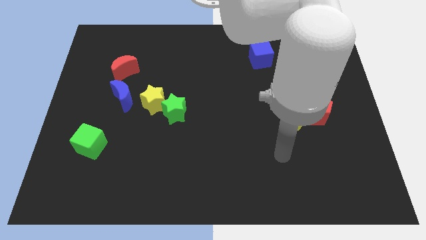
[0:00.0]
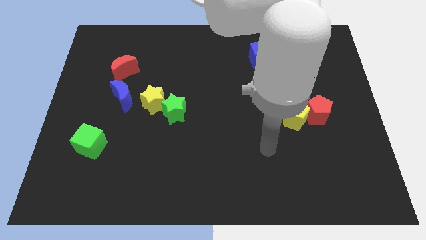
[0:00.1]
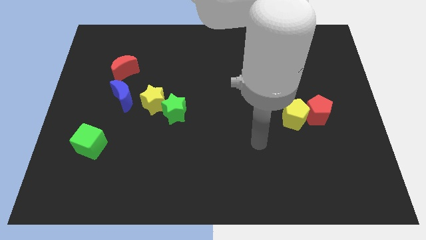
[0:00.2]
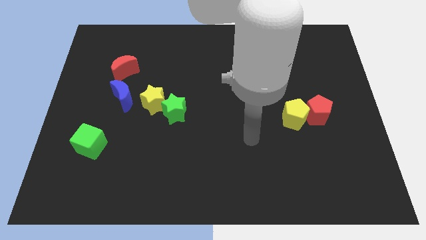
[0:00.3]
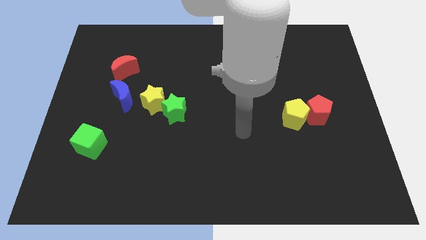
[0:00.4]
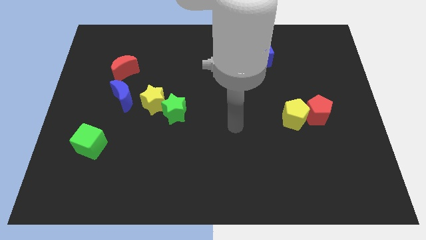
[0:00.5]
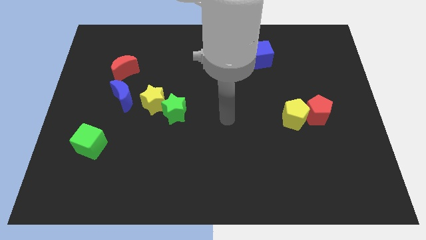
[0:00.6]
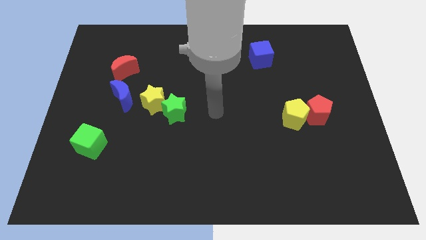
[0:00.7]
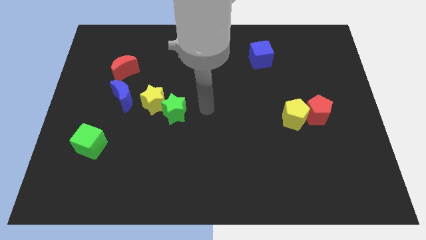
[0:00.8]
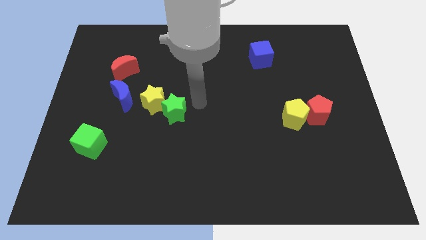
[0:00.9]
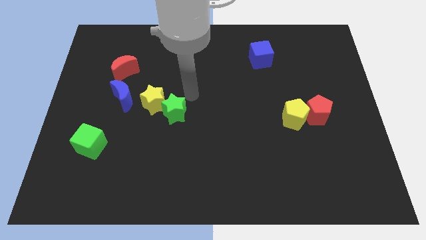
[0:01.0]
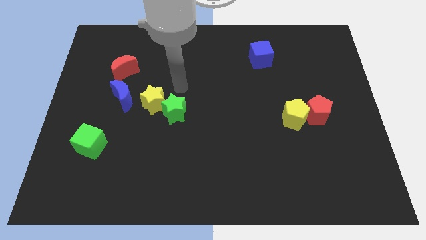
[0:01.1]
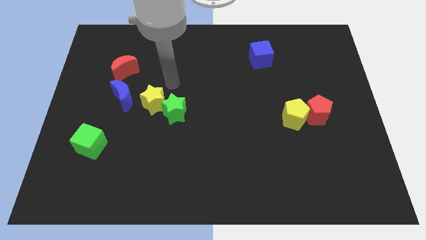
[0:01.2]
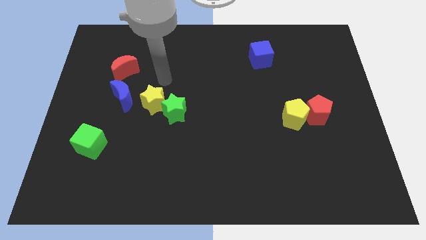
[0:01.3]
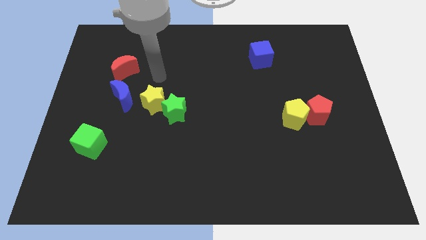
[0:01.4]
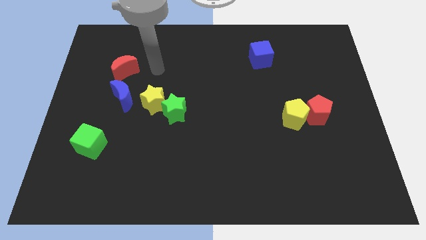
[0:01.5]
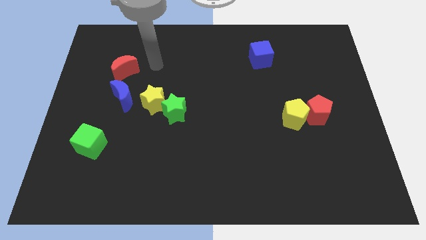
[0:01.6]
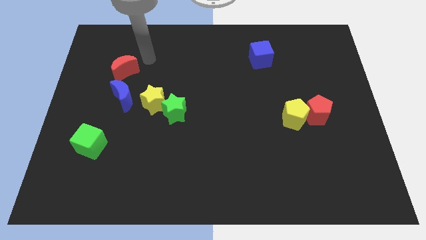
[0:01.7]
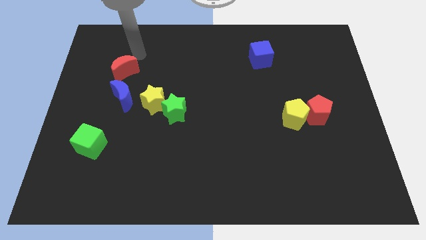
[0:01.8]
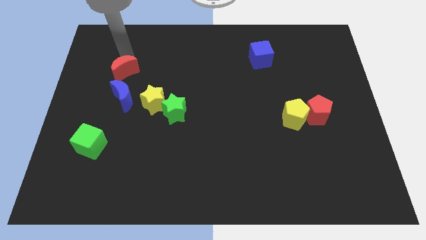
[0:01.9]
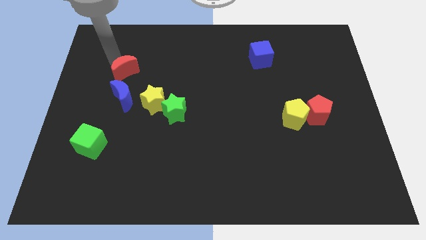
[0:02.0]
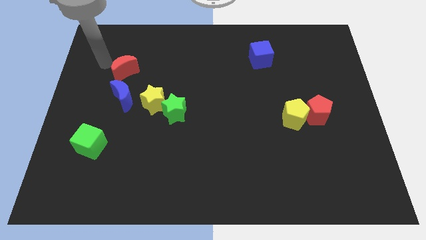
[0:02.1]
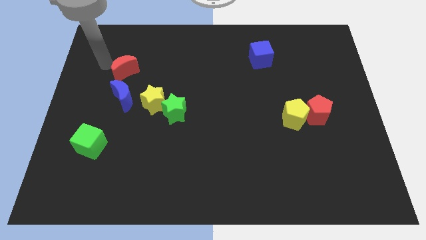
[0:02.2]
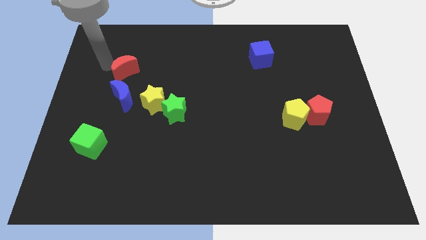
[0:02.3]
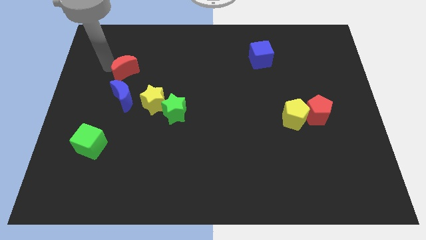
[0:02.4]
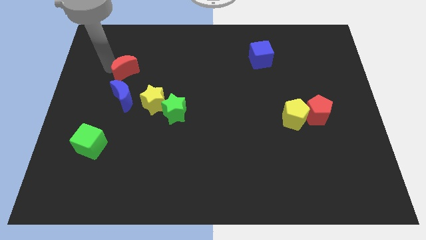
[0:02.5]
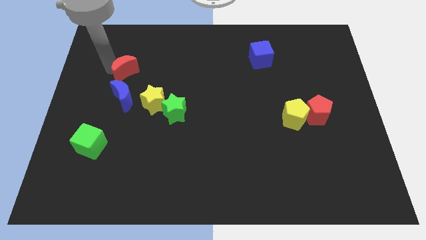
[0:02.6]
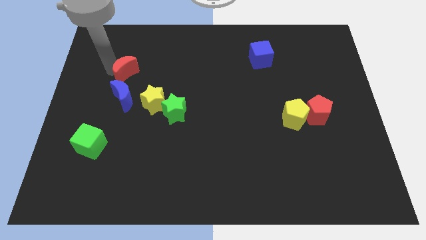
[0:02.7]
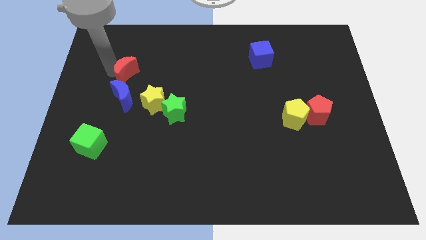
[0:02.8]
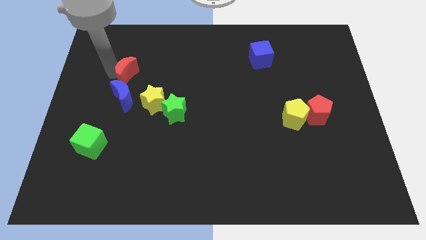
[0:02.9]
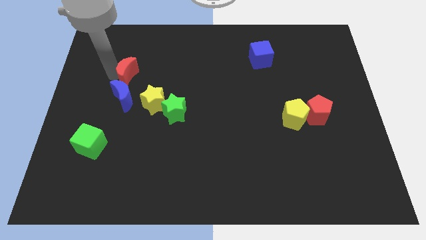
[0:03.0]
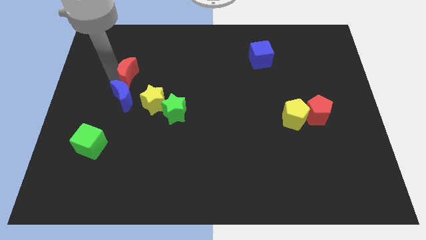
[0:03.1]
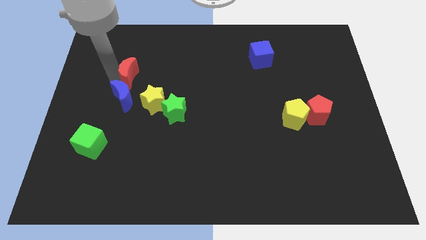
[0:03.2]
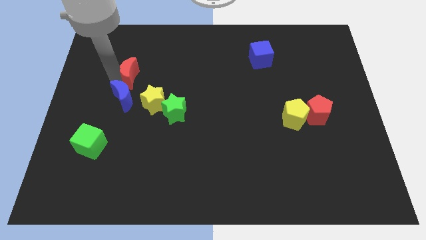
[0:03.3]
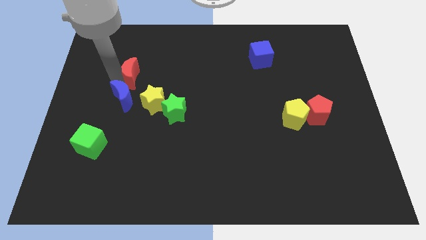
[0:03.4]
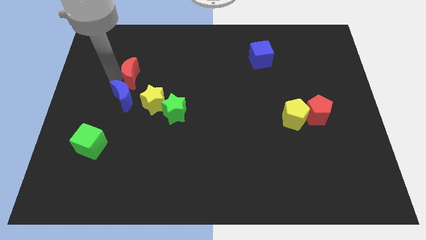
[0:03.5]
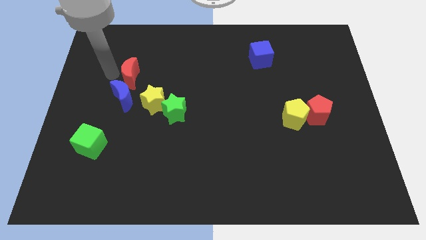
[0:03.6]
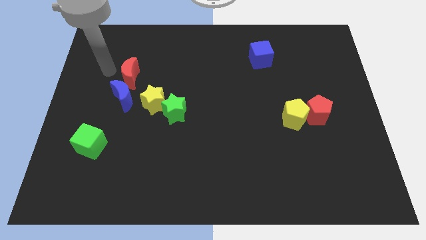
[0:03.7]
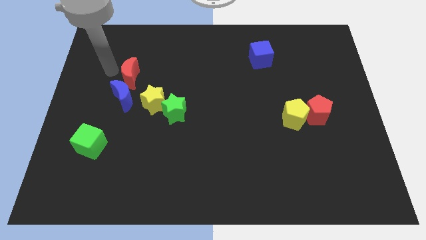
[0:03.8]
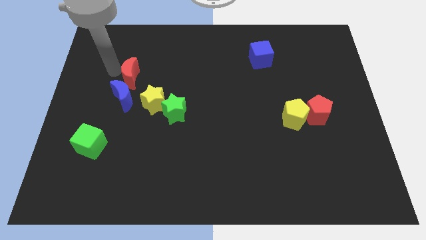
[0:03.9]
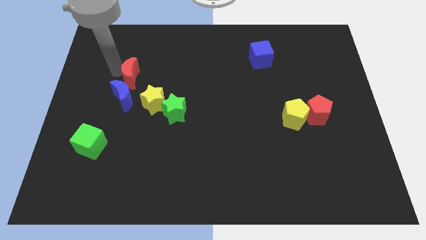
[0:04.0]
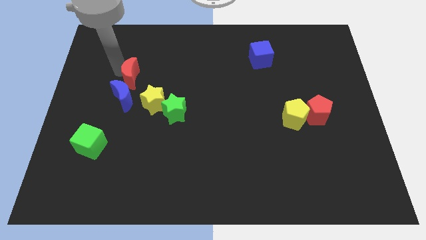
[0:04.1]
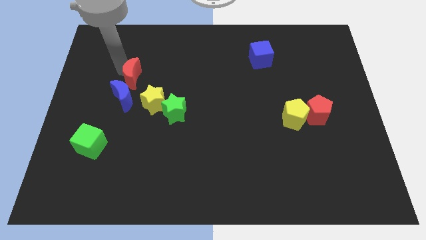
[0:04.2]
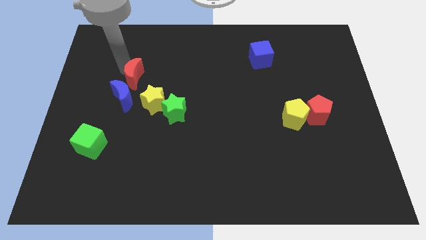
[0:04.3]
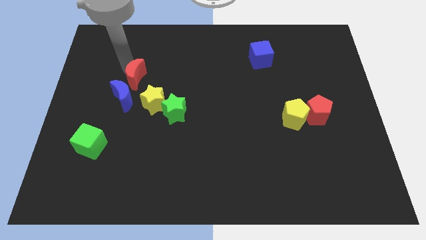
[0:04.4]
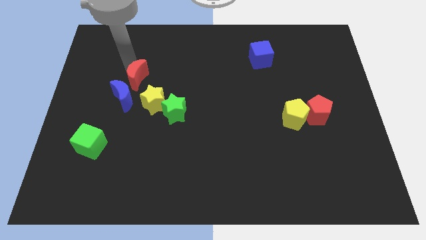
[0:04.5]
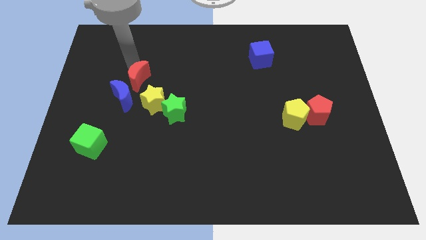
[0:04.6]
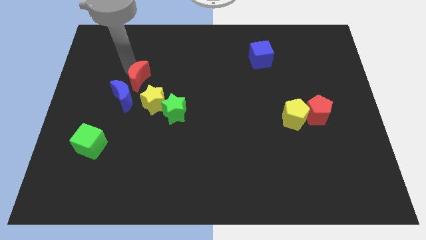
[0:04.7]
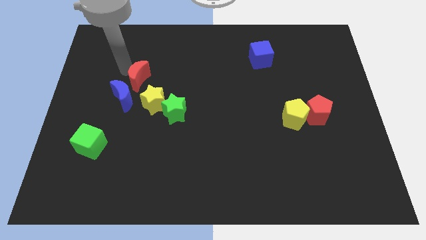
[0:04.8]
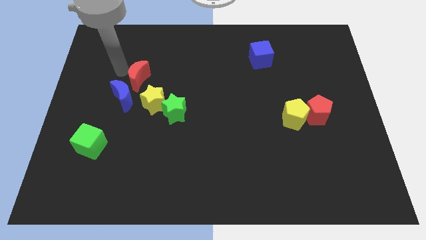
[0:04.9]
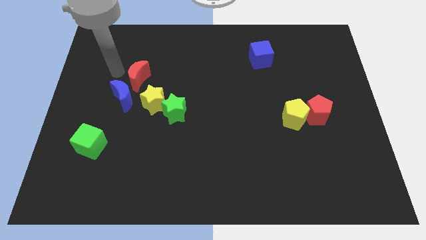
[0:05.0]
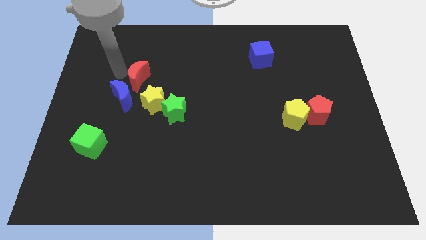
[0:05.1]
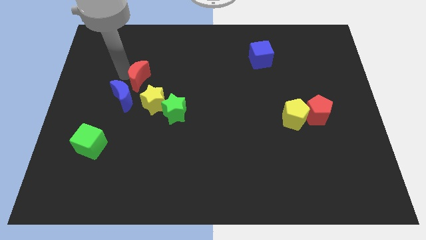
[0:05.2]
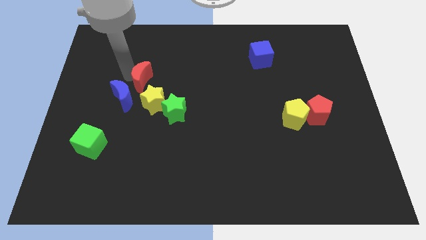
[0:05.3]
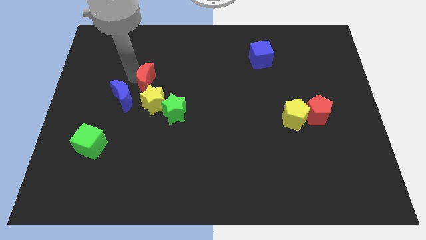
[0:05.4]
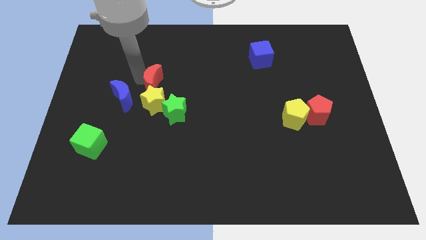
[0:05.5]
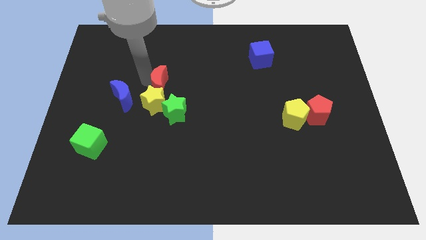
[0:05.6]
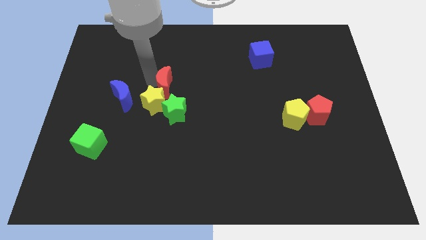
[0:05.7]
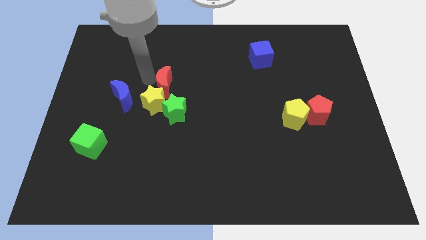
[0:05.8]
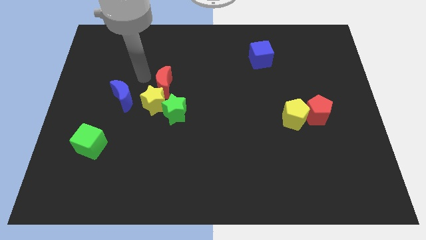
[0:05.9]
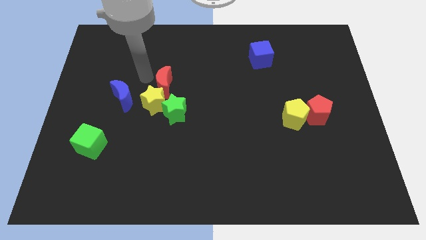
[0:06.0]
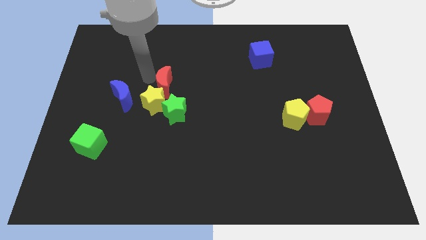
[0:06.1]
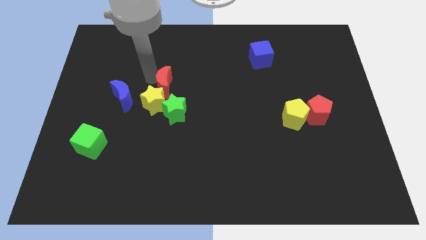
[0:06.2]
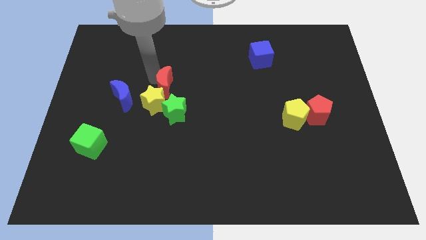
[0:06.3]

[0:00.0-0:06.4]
slide the red moon to the center of the board
